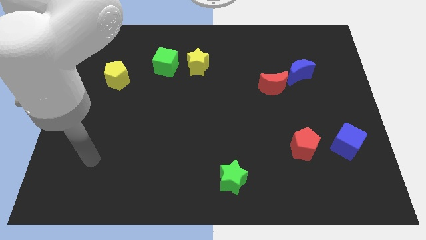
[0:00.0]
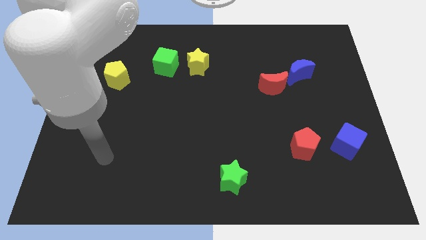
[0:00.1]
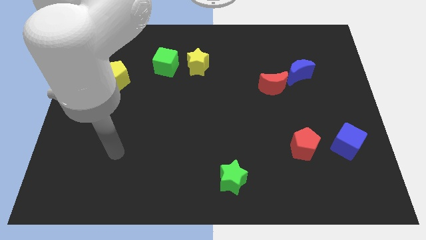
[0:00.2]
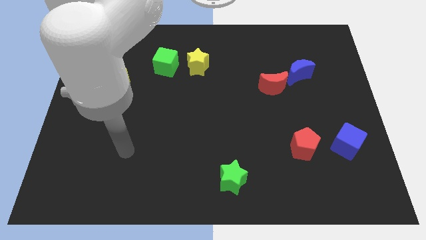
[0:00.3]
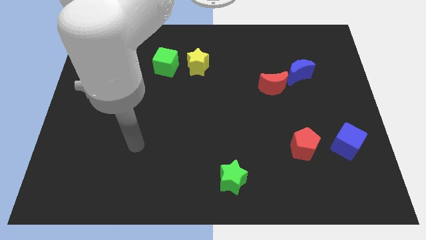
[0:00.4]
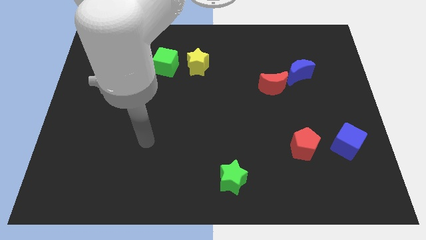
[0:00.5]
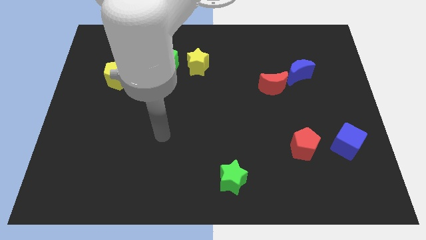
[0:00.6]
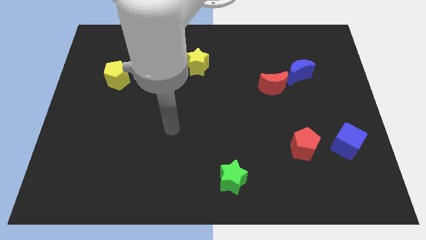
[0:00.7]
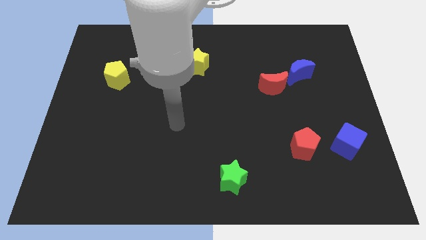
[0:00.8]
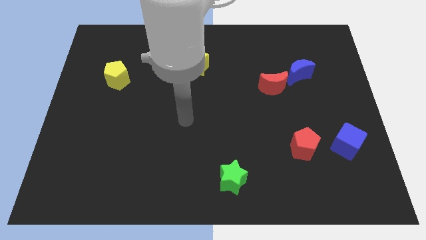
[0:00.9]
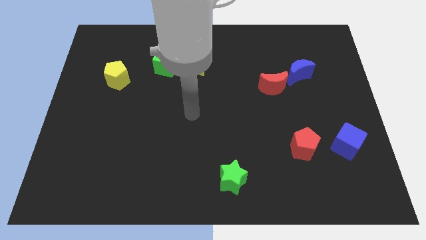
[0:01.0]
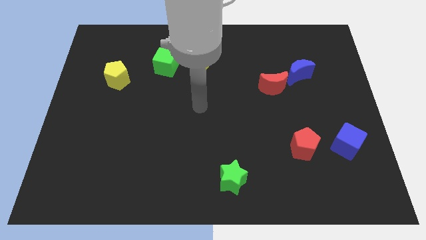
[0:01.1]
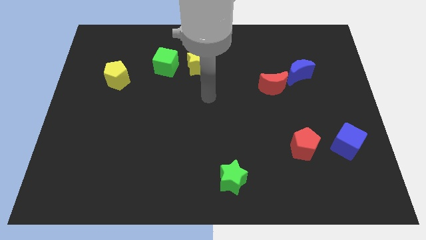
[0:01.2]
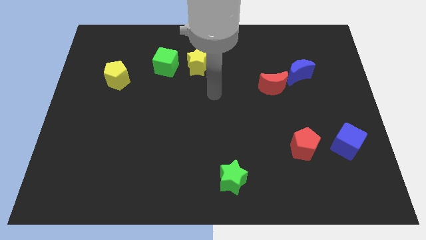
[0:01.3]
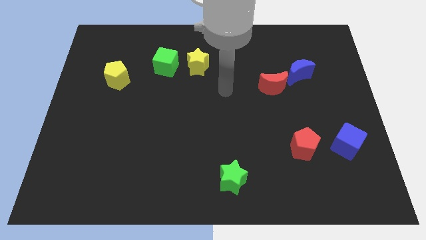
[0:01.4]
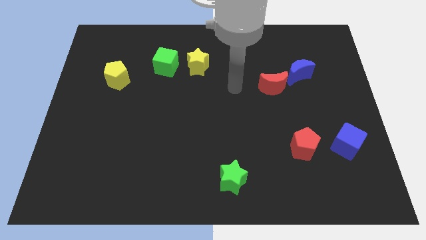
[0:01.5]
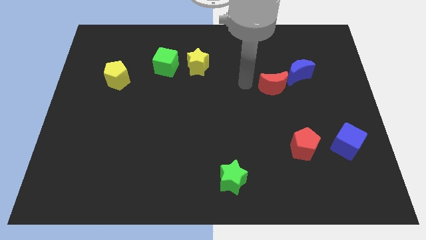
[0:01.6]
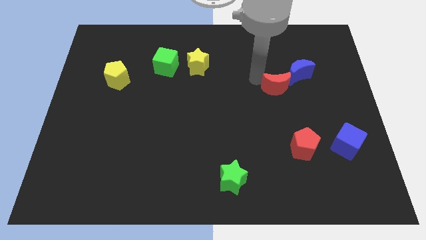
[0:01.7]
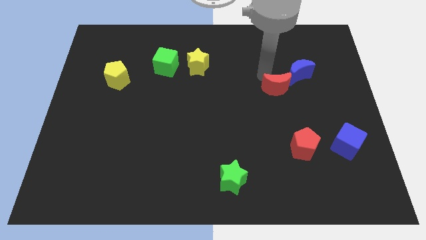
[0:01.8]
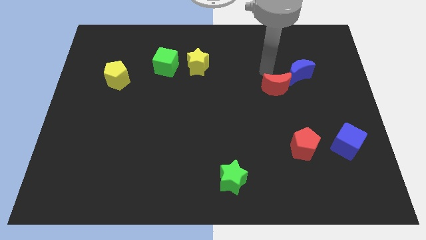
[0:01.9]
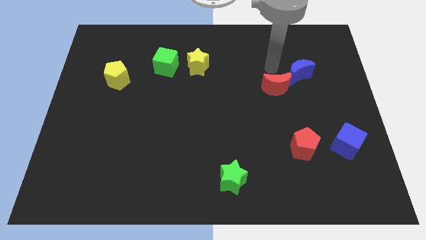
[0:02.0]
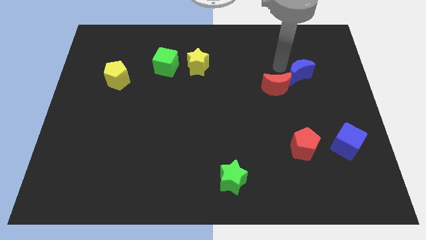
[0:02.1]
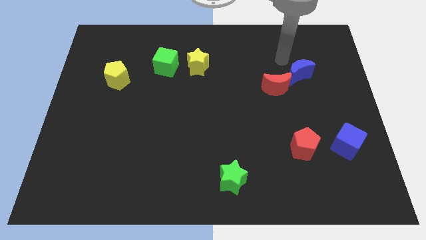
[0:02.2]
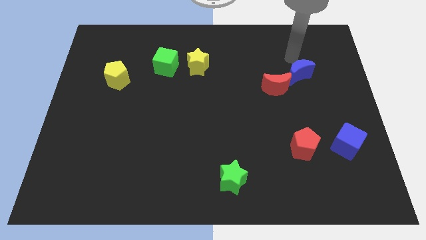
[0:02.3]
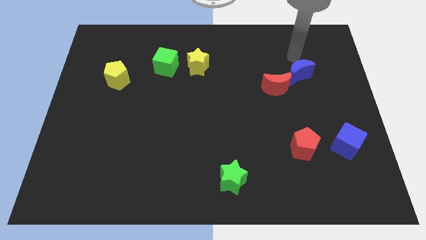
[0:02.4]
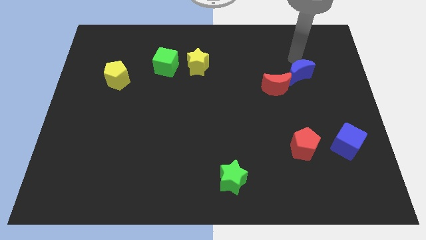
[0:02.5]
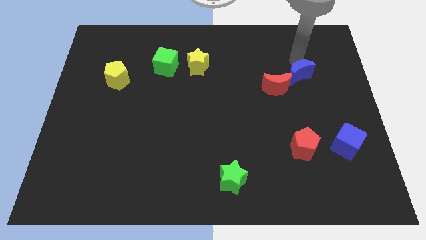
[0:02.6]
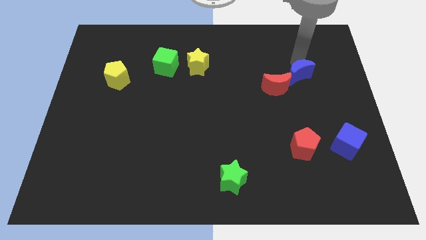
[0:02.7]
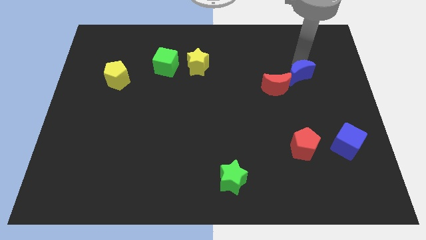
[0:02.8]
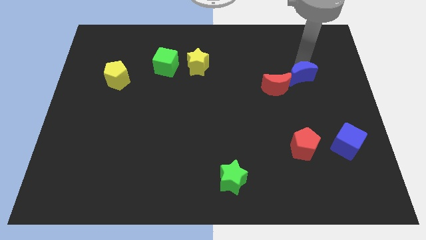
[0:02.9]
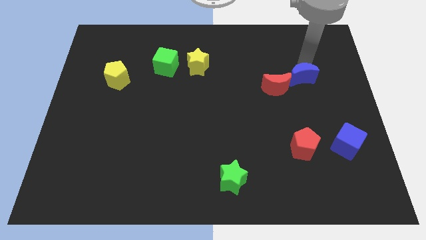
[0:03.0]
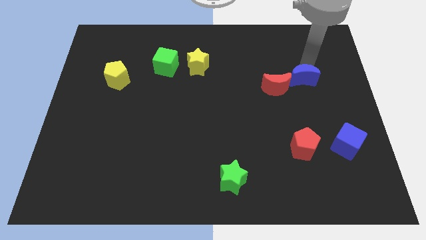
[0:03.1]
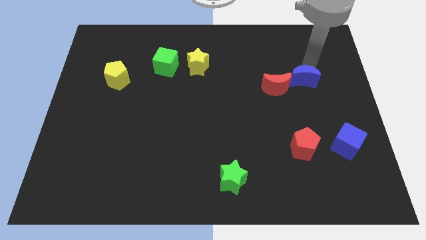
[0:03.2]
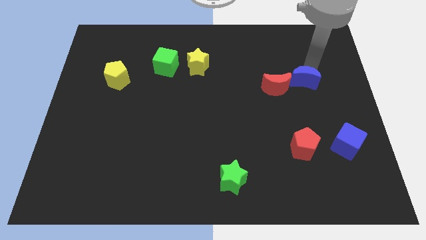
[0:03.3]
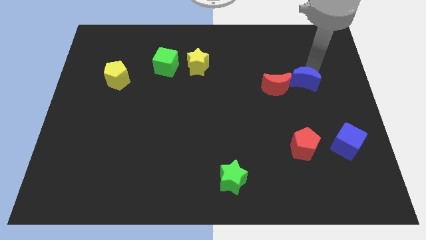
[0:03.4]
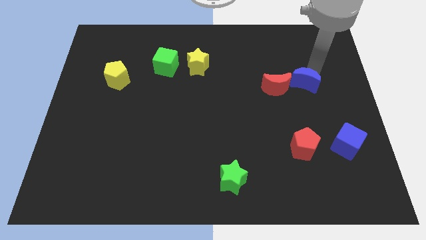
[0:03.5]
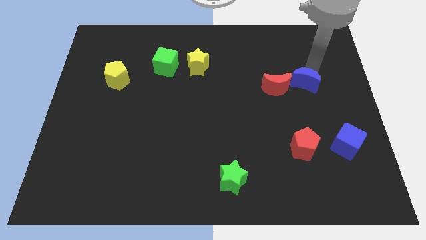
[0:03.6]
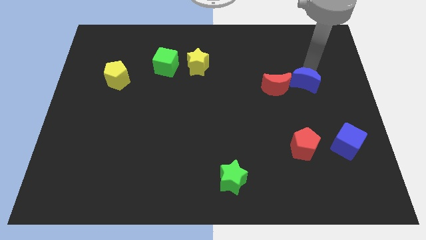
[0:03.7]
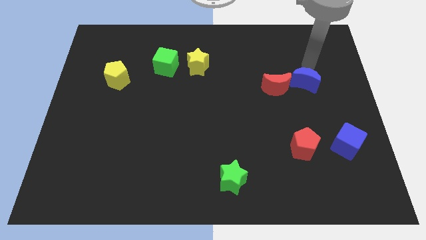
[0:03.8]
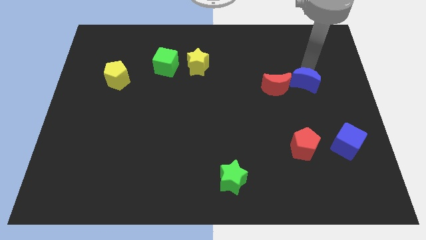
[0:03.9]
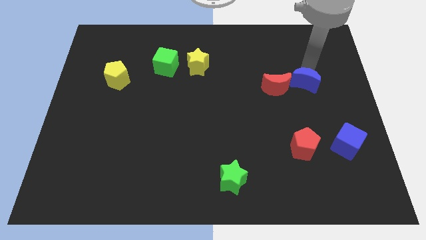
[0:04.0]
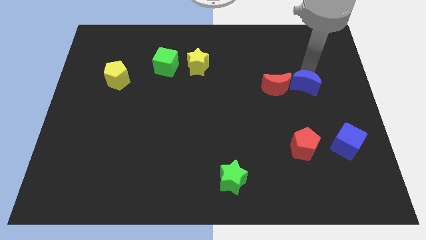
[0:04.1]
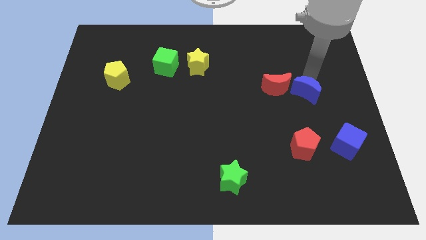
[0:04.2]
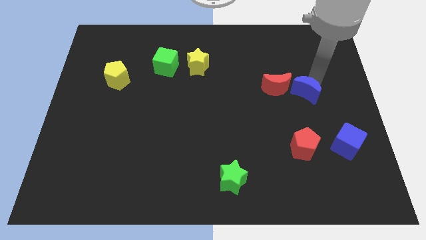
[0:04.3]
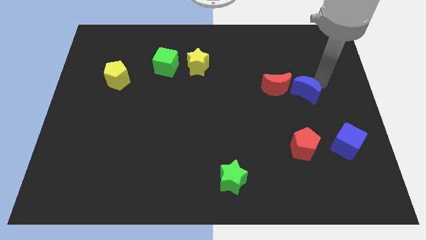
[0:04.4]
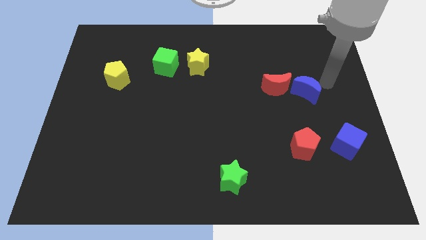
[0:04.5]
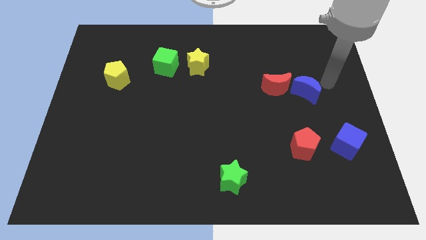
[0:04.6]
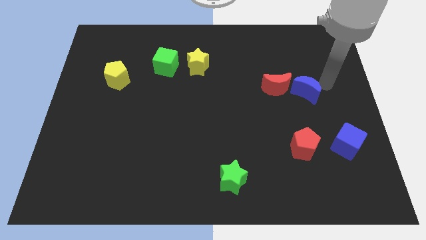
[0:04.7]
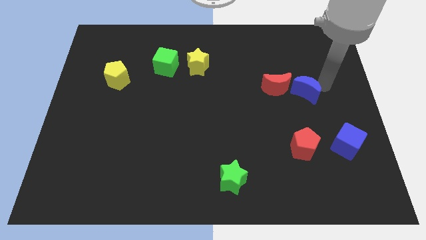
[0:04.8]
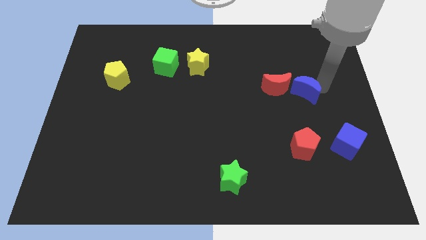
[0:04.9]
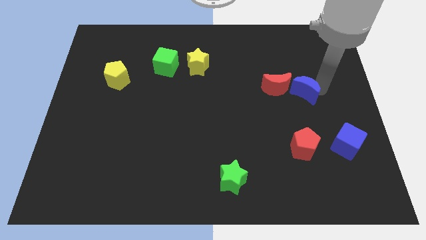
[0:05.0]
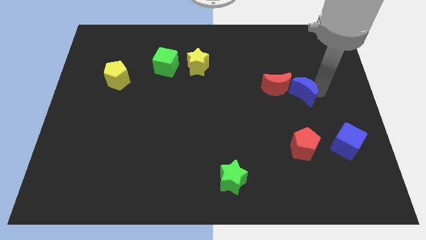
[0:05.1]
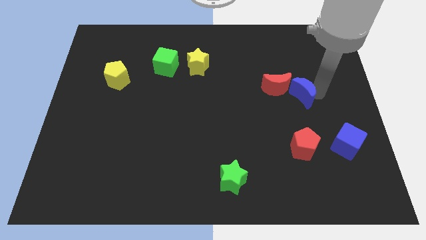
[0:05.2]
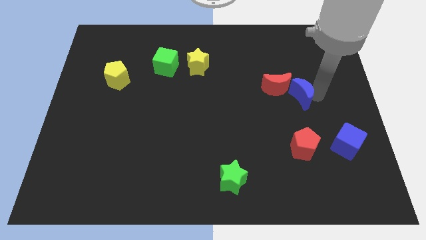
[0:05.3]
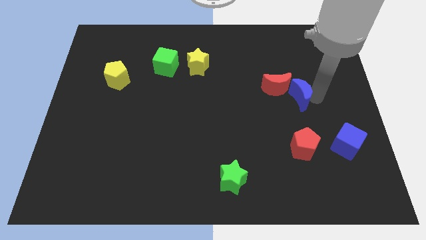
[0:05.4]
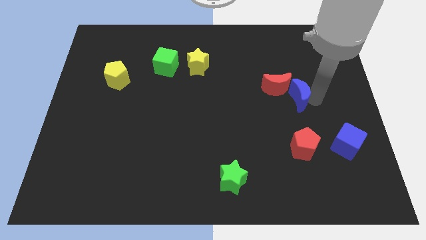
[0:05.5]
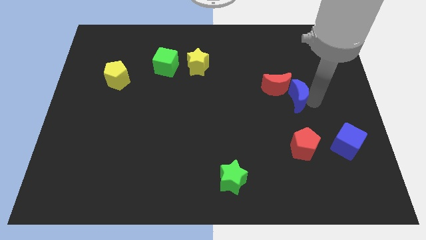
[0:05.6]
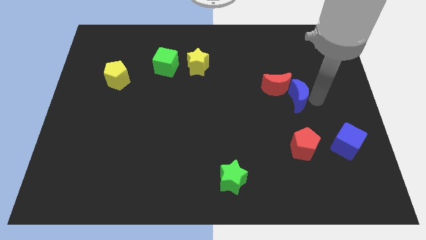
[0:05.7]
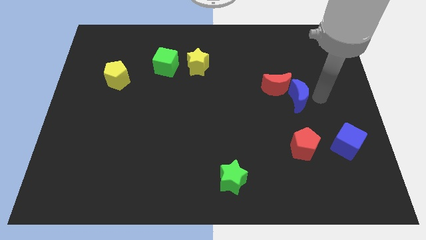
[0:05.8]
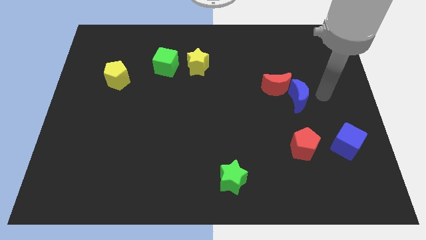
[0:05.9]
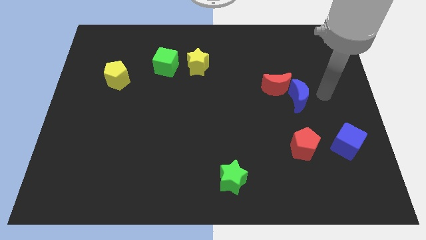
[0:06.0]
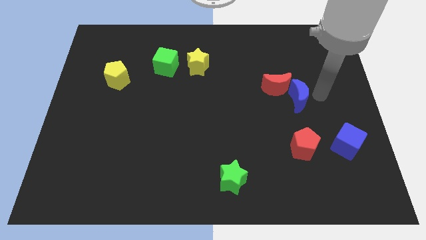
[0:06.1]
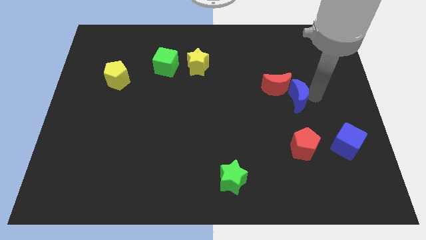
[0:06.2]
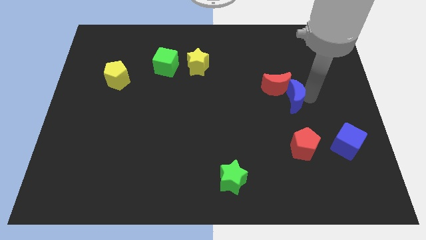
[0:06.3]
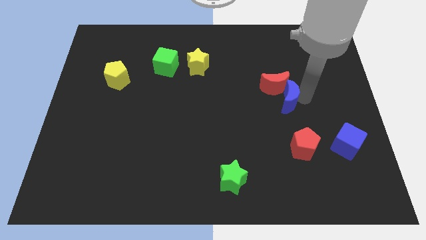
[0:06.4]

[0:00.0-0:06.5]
push the blue moon a bit diagonally downwards and to the left

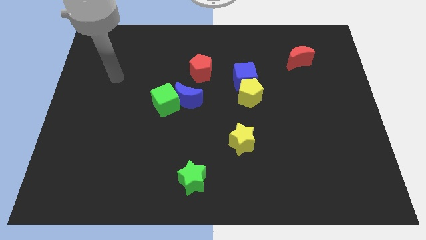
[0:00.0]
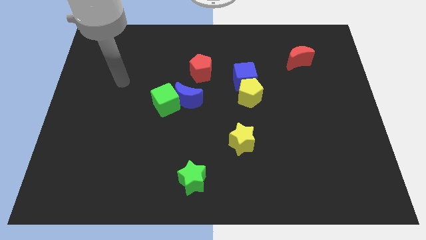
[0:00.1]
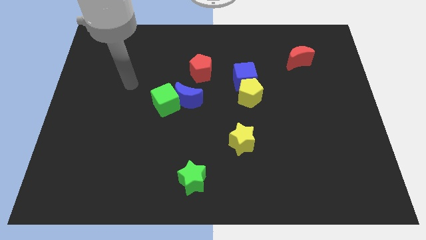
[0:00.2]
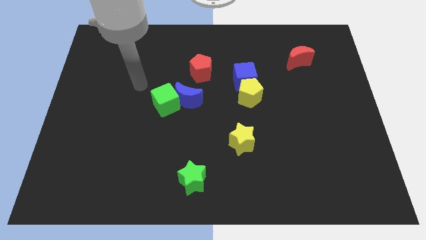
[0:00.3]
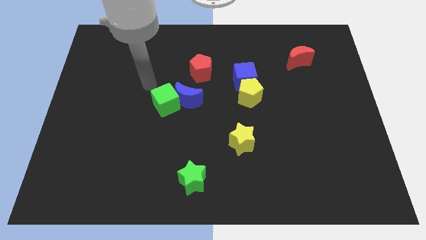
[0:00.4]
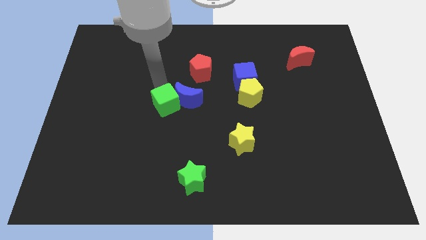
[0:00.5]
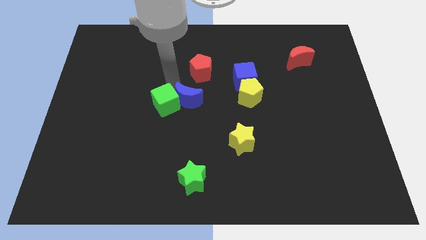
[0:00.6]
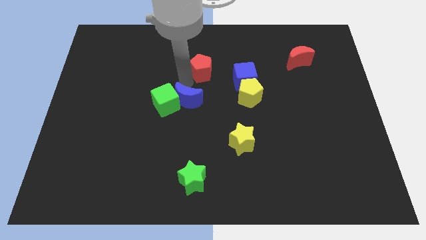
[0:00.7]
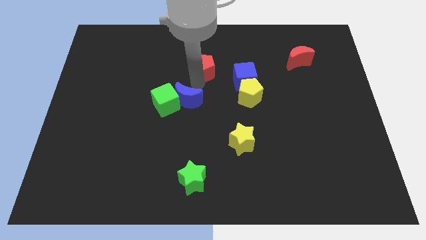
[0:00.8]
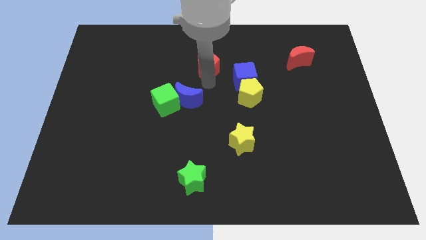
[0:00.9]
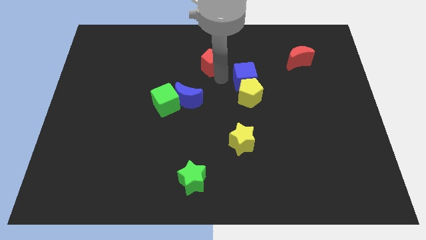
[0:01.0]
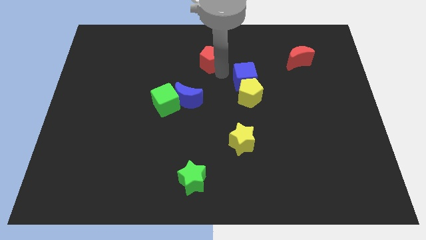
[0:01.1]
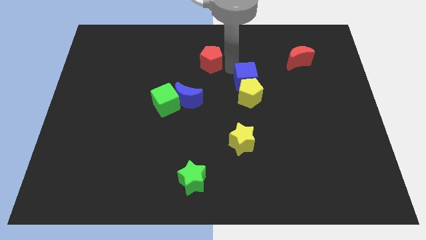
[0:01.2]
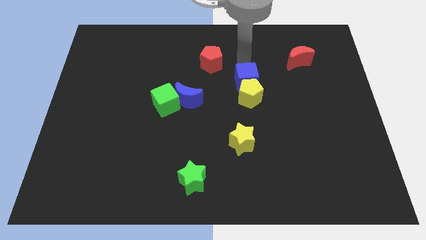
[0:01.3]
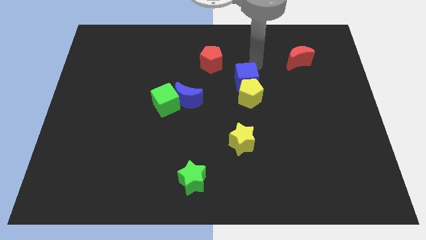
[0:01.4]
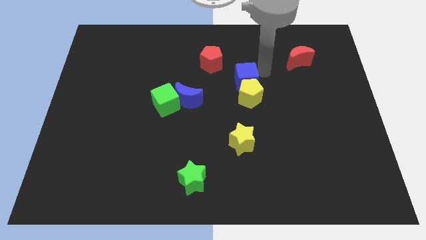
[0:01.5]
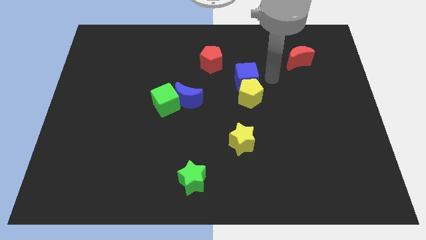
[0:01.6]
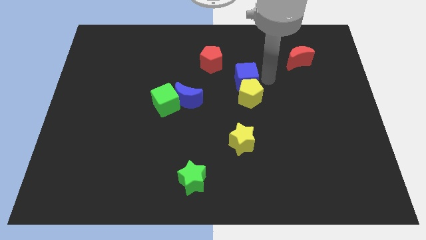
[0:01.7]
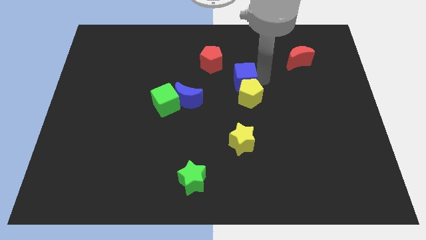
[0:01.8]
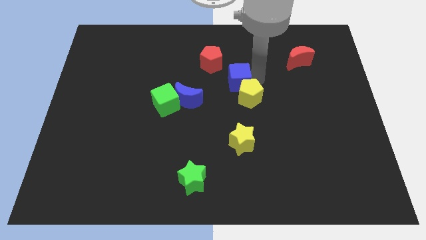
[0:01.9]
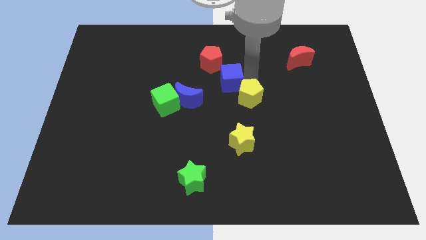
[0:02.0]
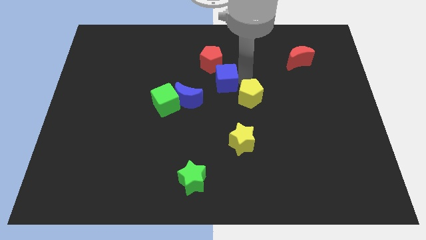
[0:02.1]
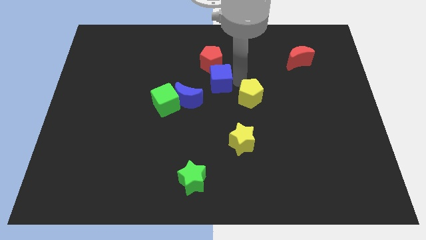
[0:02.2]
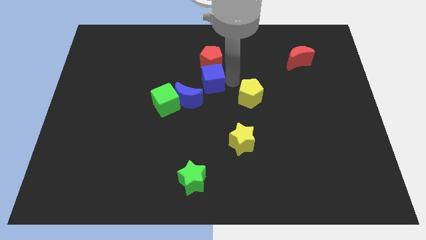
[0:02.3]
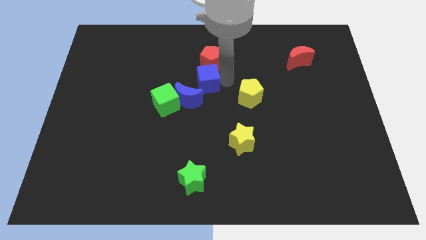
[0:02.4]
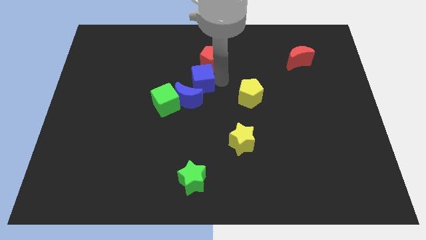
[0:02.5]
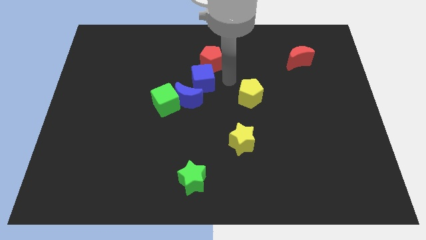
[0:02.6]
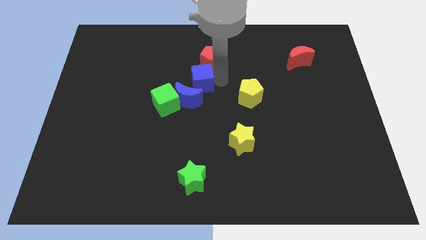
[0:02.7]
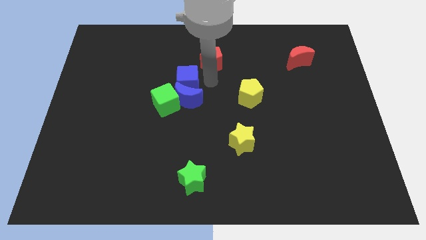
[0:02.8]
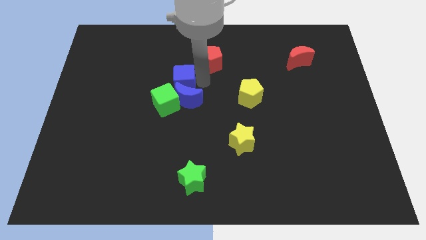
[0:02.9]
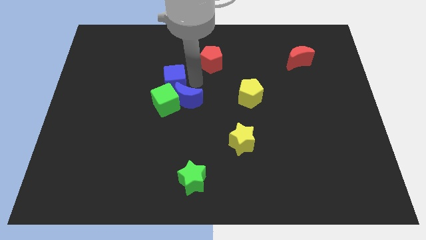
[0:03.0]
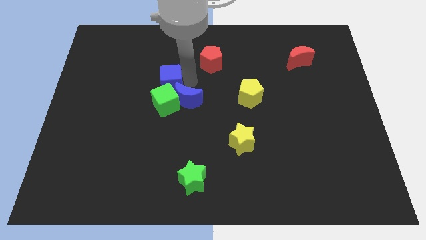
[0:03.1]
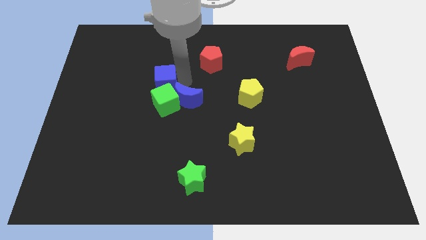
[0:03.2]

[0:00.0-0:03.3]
move the blue cube left
